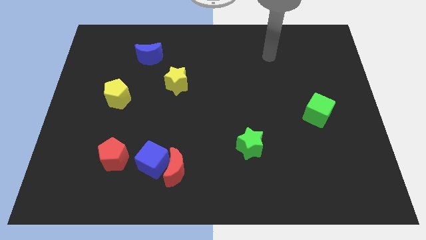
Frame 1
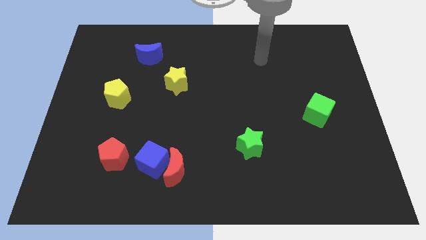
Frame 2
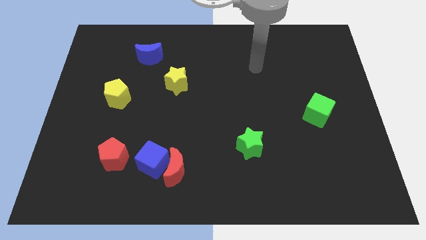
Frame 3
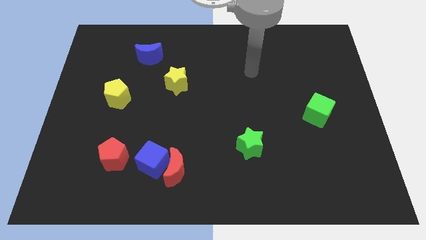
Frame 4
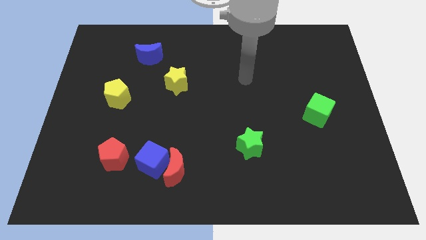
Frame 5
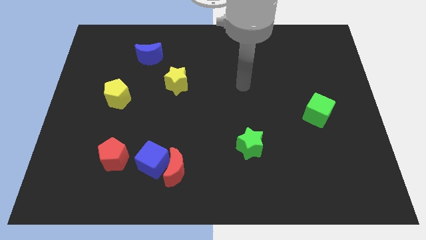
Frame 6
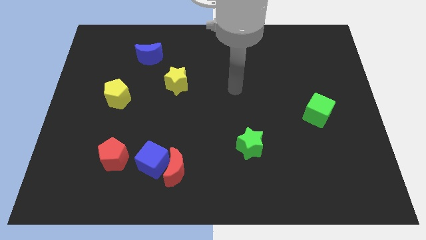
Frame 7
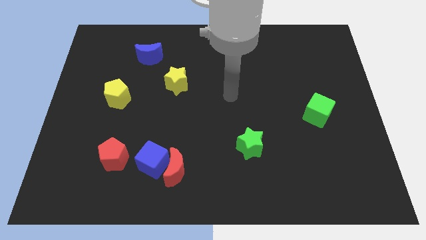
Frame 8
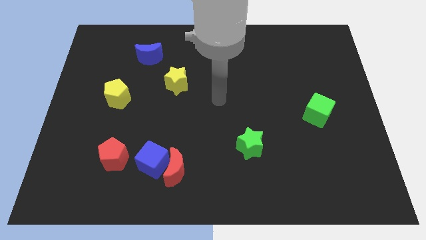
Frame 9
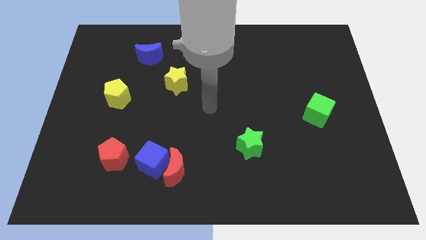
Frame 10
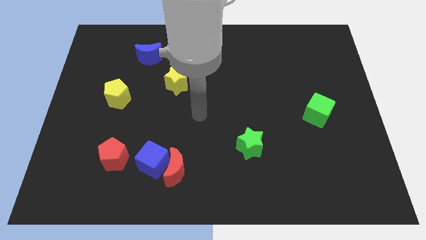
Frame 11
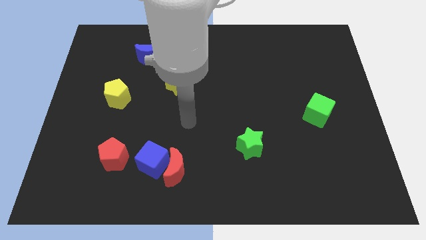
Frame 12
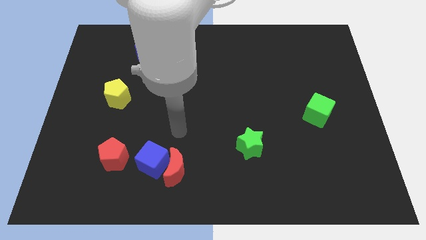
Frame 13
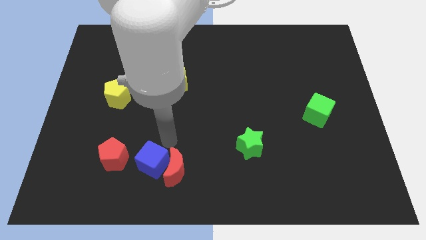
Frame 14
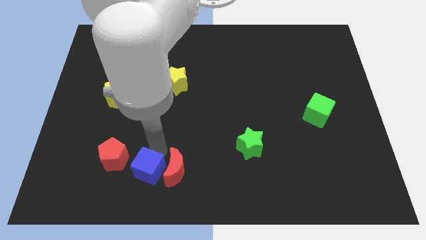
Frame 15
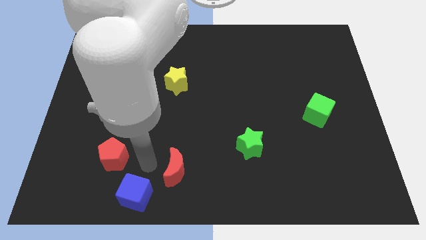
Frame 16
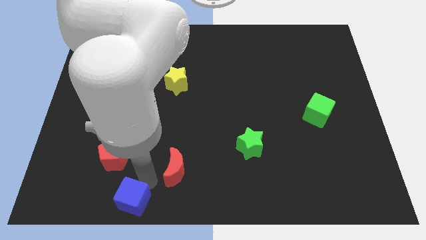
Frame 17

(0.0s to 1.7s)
move the red moon away from the blue cube

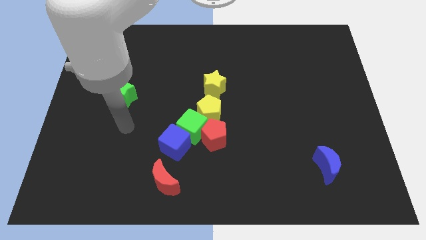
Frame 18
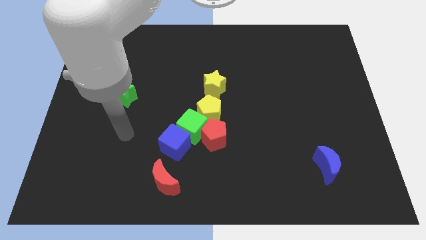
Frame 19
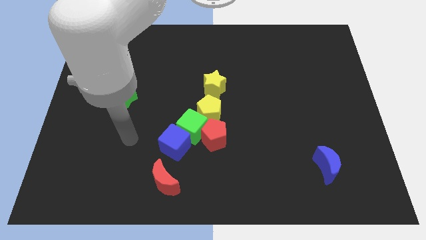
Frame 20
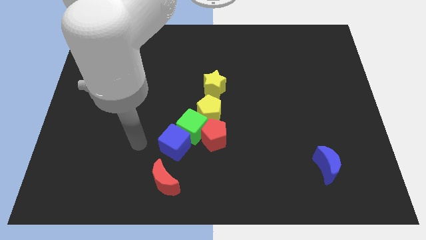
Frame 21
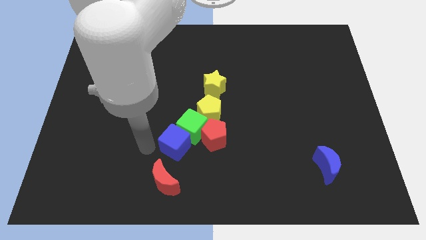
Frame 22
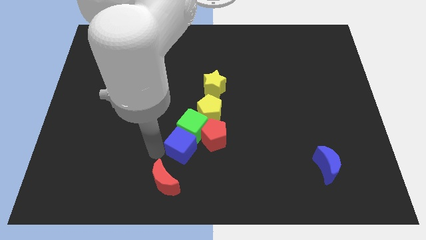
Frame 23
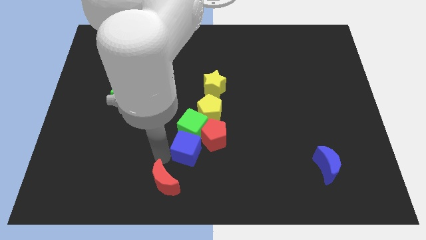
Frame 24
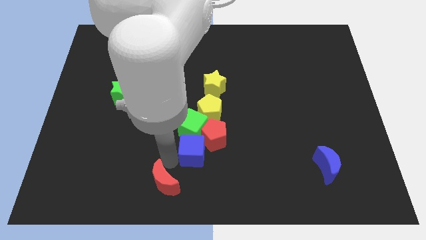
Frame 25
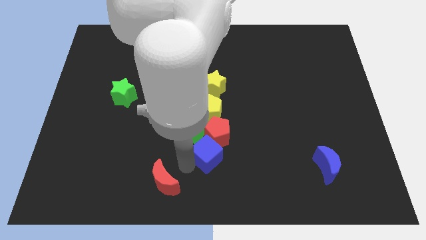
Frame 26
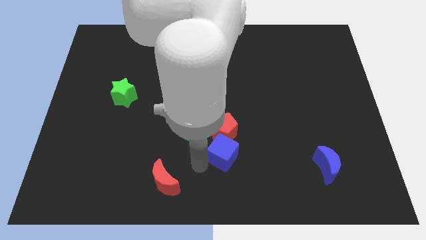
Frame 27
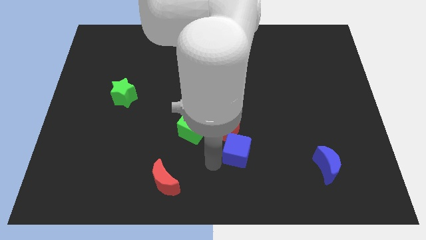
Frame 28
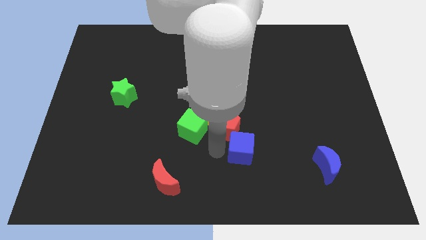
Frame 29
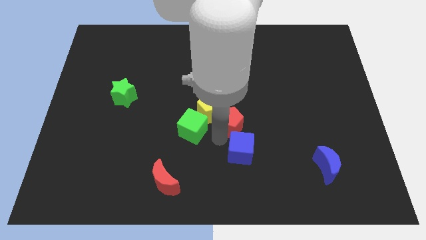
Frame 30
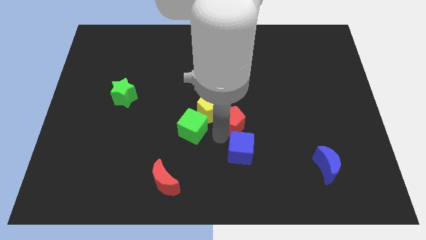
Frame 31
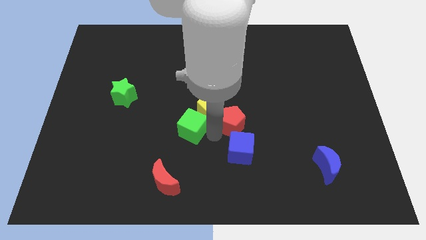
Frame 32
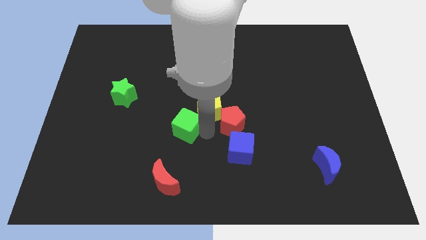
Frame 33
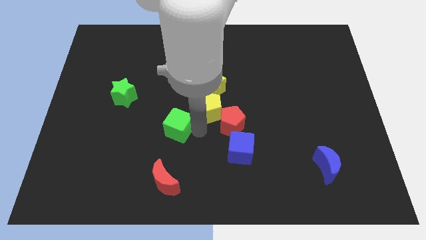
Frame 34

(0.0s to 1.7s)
separate the green cube from the clump

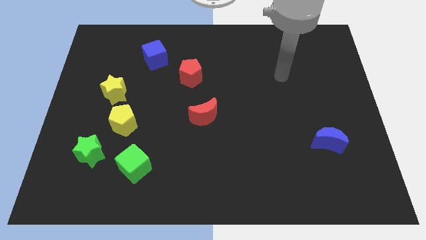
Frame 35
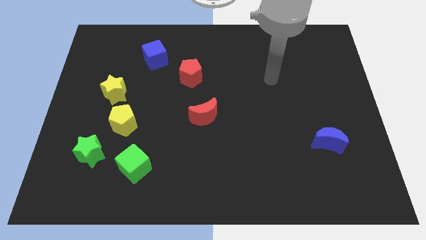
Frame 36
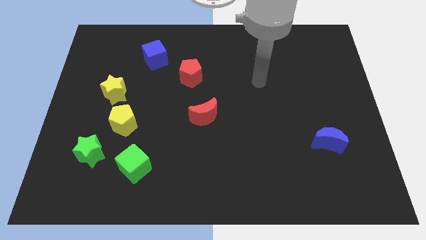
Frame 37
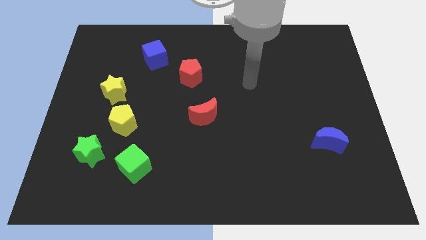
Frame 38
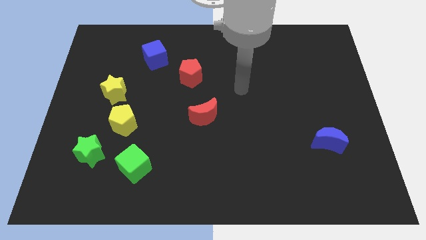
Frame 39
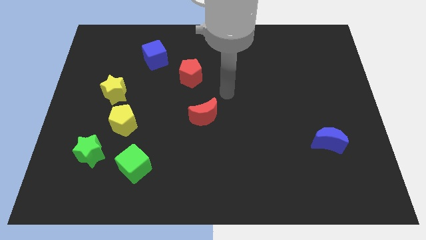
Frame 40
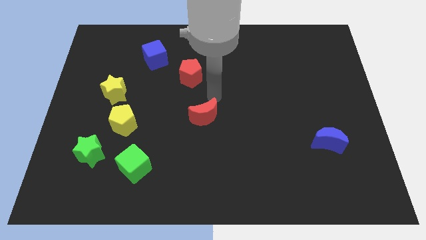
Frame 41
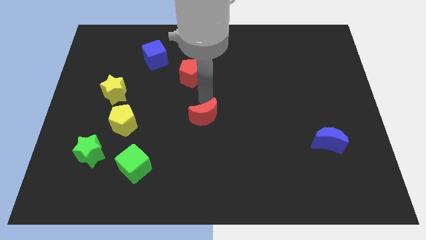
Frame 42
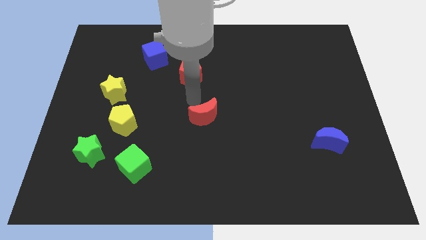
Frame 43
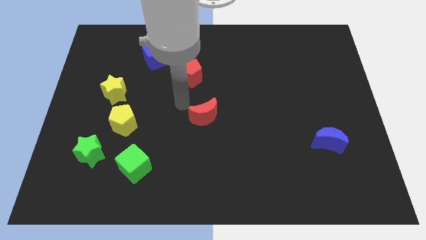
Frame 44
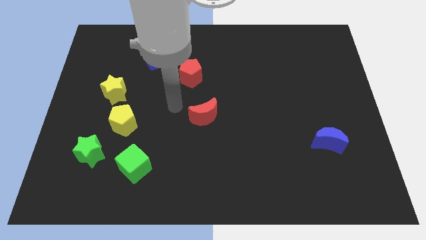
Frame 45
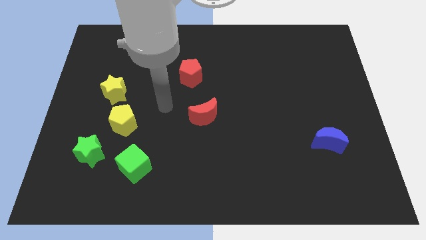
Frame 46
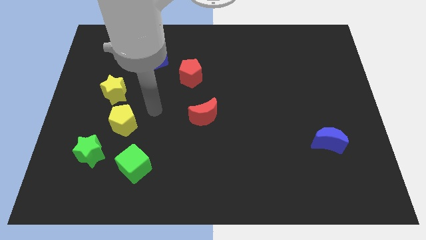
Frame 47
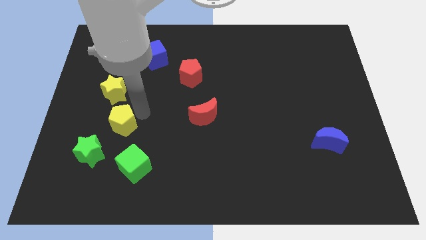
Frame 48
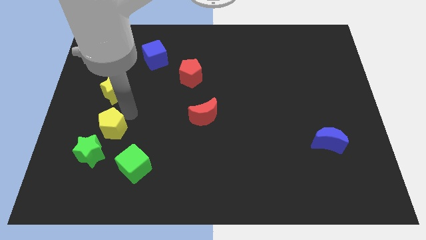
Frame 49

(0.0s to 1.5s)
move the yellow star away from the yellow pentagon

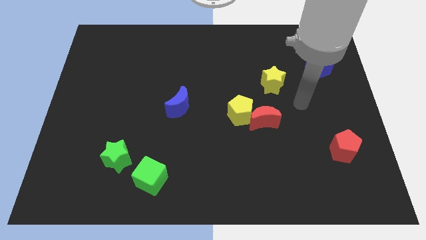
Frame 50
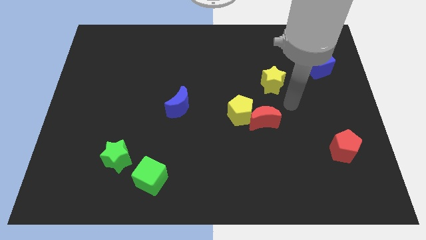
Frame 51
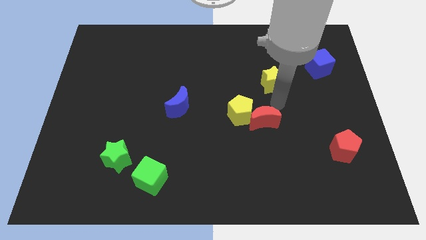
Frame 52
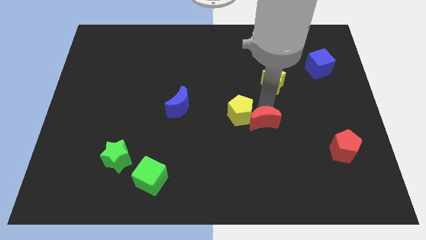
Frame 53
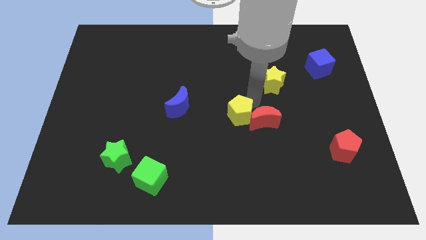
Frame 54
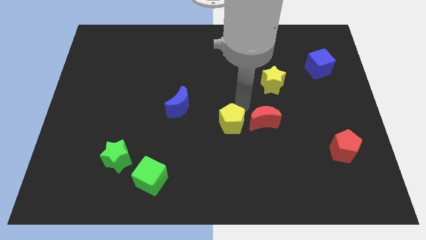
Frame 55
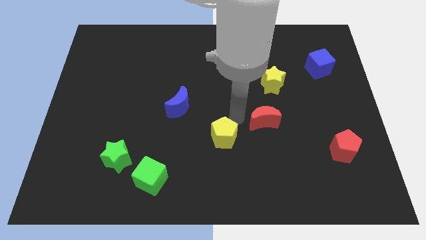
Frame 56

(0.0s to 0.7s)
separate the red moon from the yellow pentagon

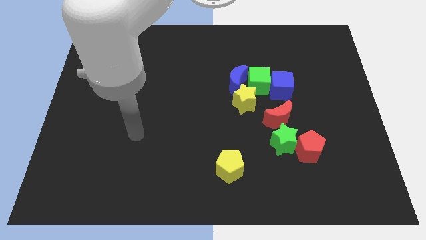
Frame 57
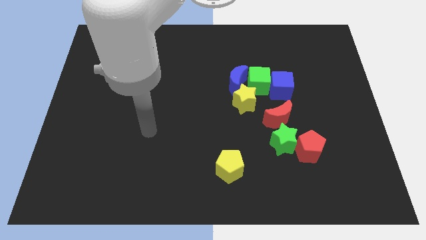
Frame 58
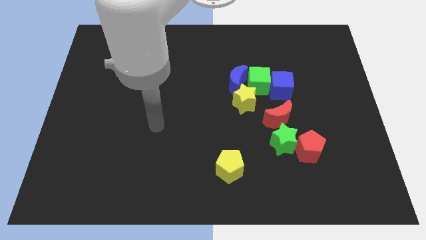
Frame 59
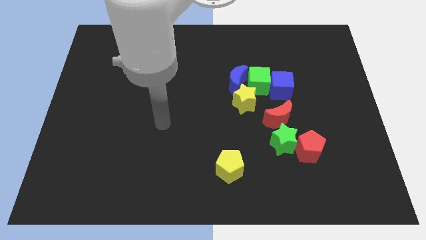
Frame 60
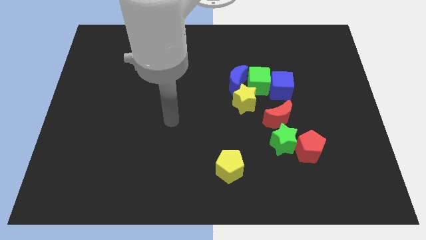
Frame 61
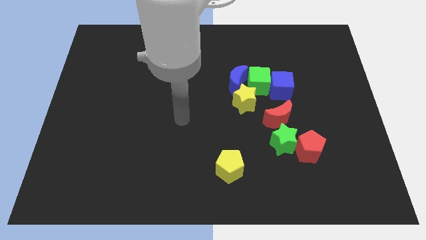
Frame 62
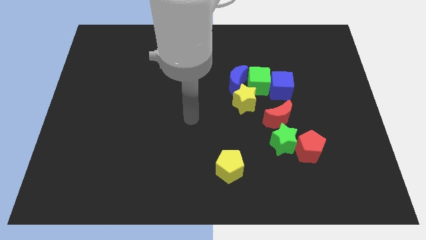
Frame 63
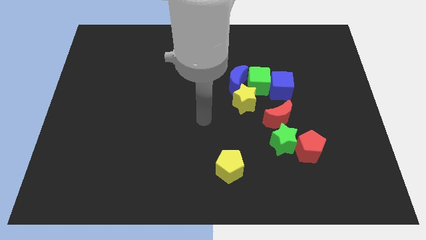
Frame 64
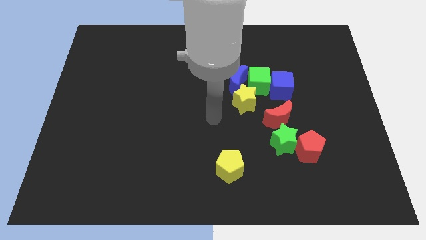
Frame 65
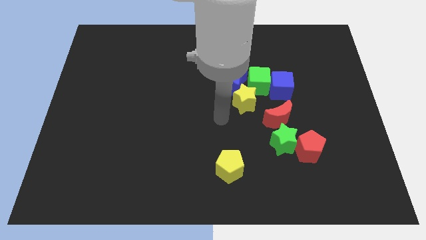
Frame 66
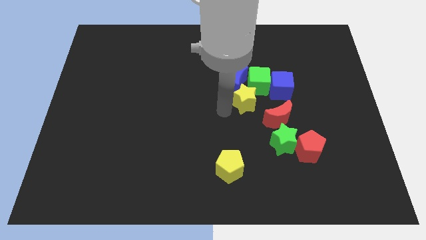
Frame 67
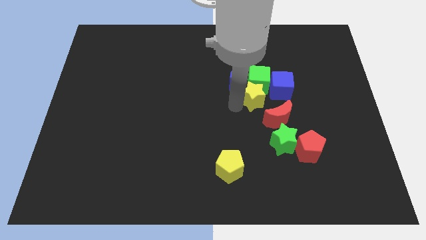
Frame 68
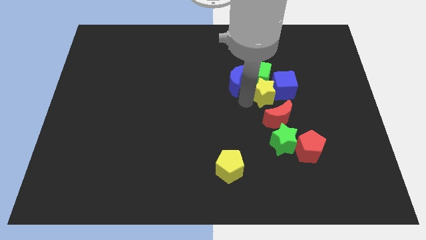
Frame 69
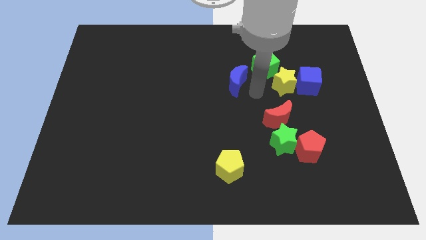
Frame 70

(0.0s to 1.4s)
move the blue moon away from the green cube and yellow star

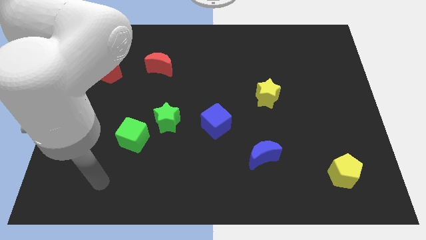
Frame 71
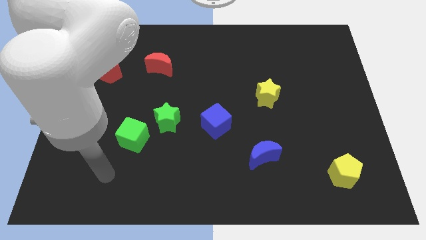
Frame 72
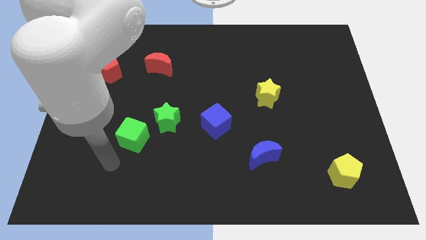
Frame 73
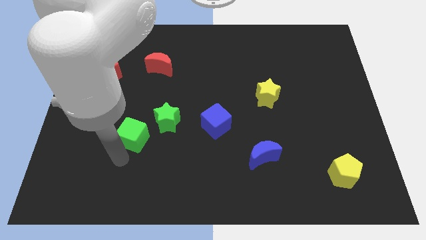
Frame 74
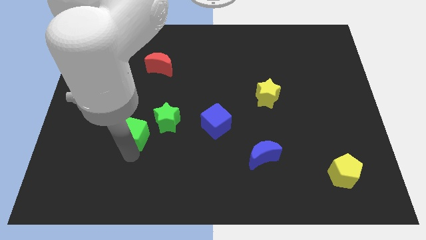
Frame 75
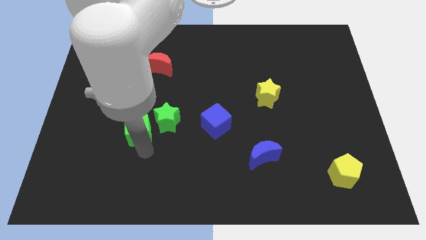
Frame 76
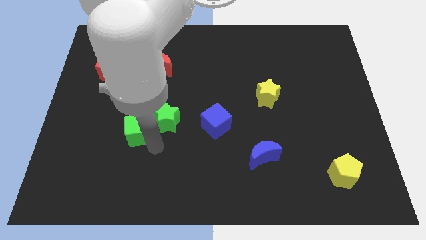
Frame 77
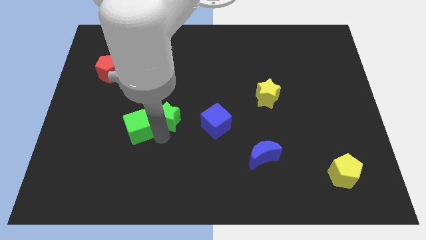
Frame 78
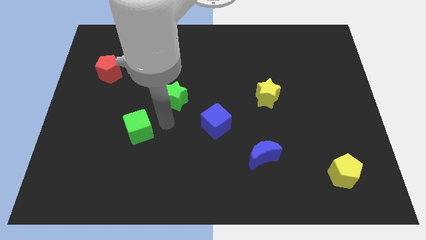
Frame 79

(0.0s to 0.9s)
separate the green cube from the green star

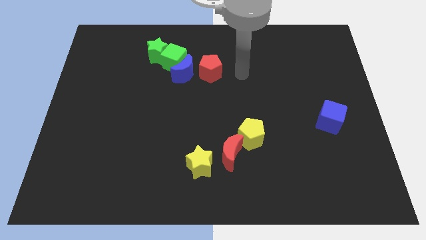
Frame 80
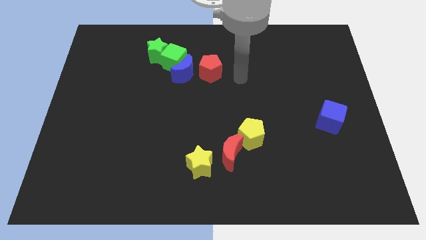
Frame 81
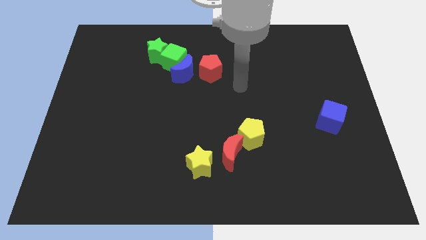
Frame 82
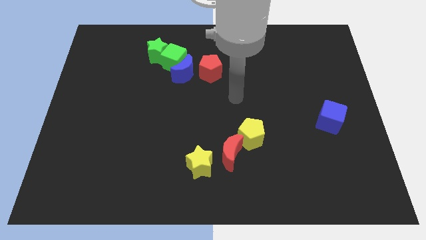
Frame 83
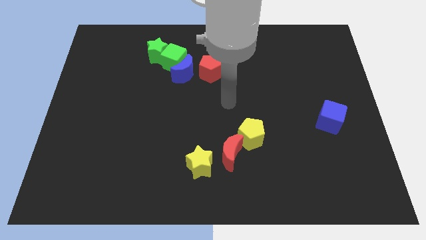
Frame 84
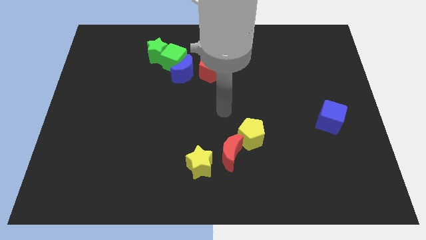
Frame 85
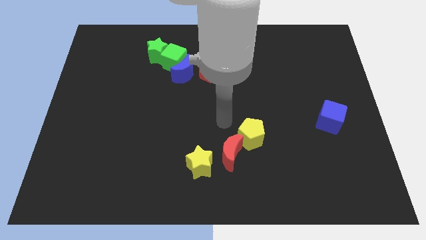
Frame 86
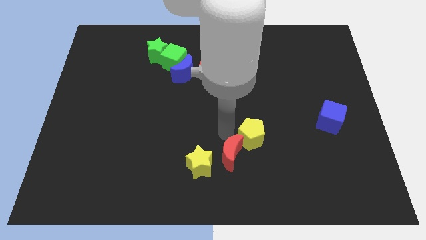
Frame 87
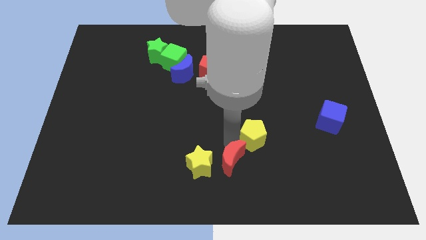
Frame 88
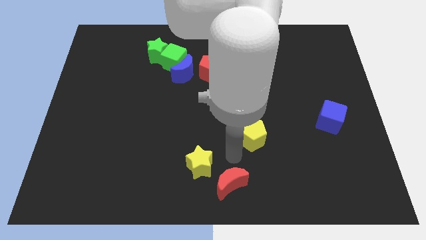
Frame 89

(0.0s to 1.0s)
separate the yellow pentagon from the red moon

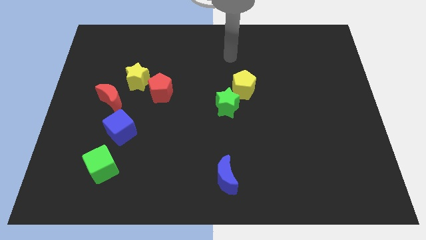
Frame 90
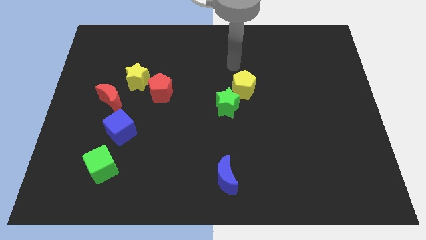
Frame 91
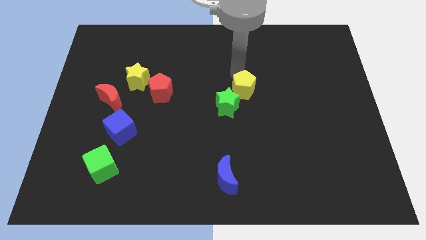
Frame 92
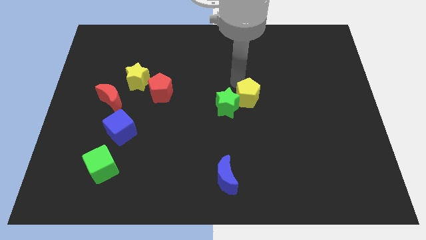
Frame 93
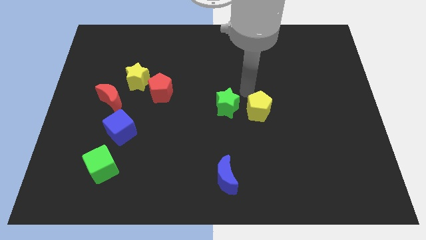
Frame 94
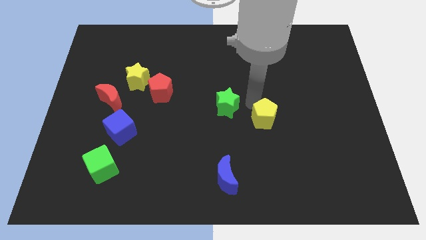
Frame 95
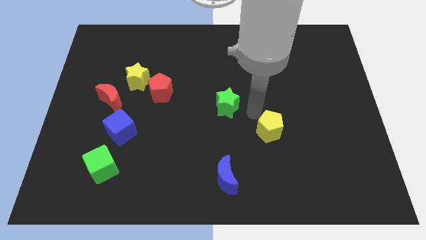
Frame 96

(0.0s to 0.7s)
pull the green star apart from the yellow pentagon
